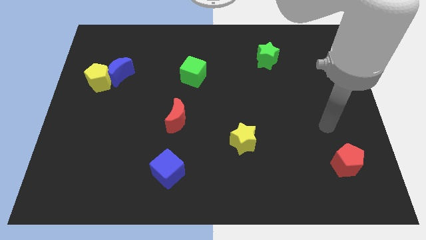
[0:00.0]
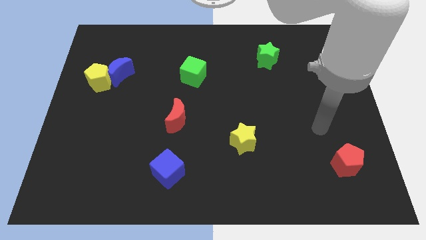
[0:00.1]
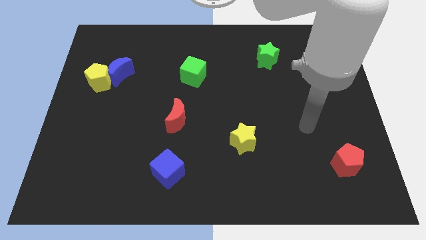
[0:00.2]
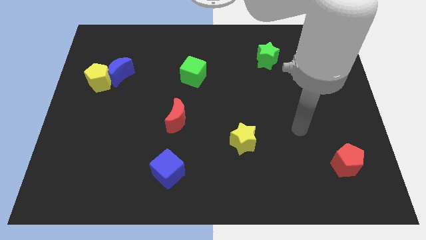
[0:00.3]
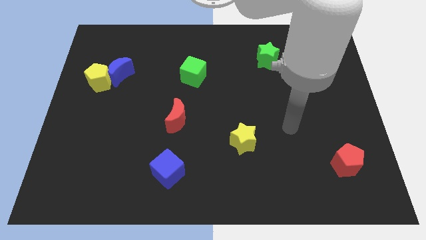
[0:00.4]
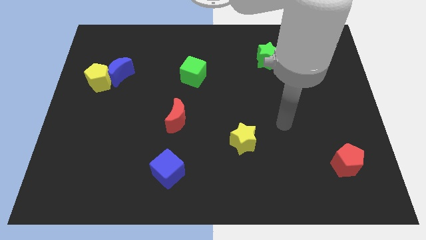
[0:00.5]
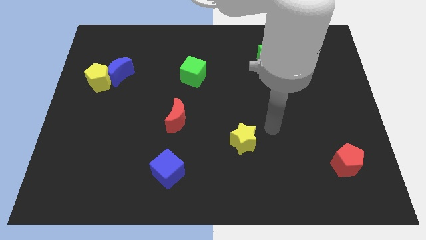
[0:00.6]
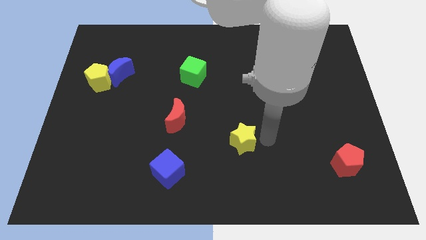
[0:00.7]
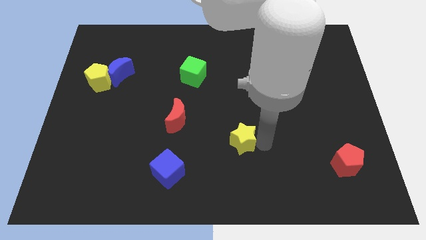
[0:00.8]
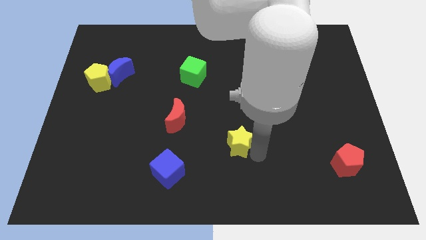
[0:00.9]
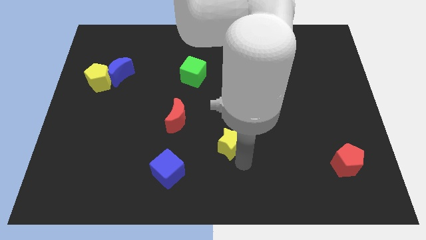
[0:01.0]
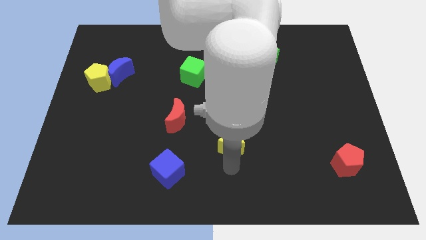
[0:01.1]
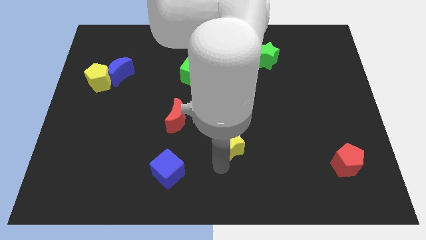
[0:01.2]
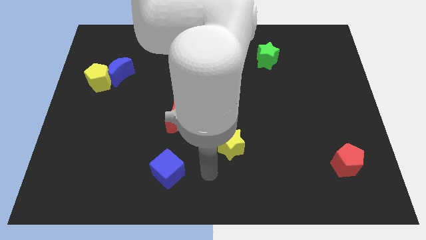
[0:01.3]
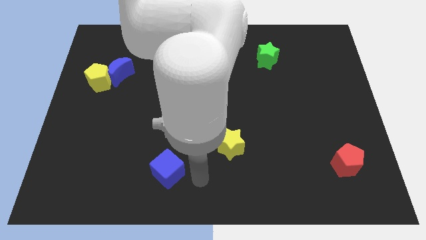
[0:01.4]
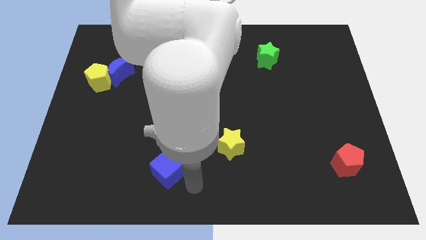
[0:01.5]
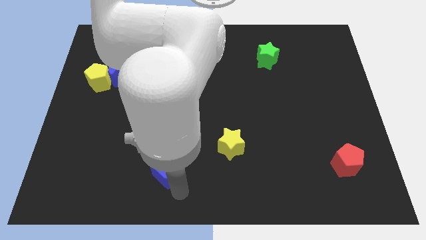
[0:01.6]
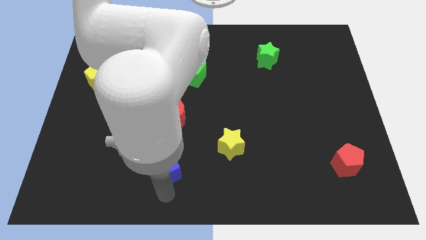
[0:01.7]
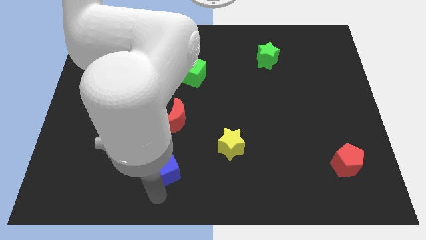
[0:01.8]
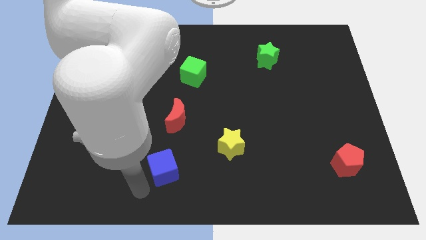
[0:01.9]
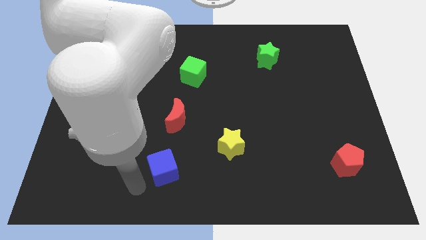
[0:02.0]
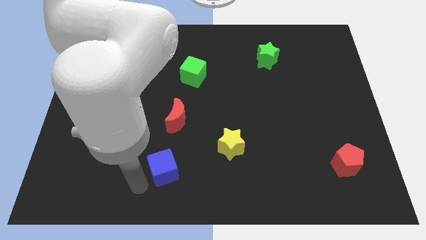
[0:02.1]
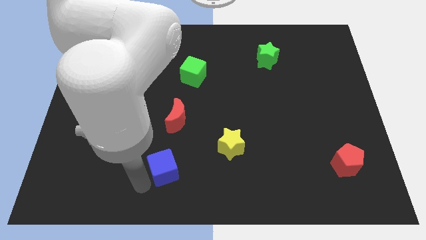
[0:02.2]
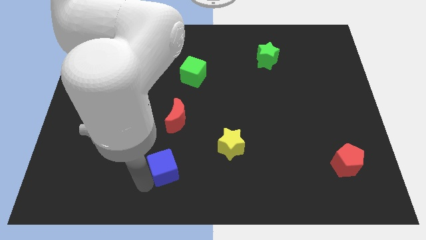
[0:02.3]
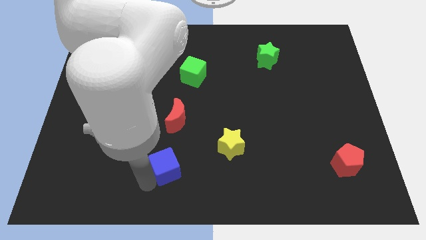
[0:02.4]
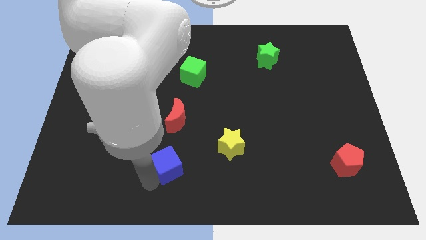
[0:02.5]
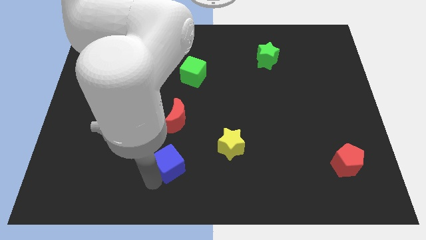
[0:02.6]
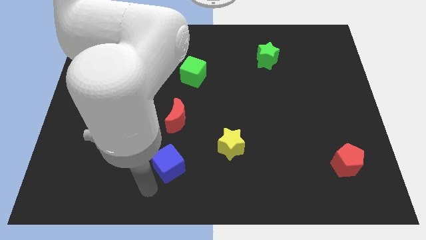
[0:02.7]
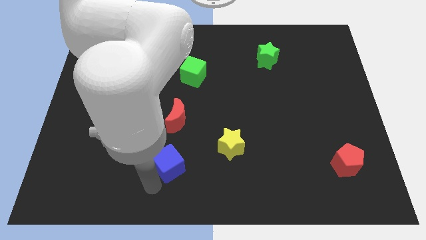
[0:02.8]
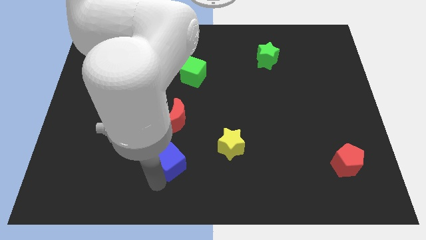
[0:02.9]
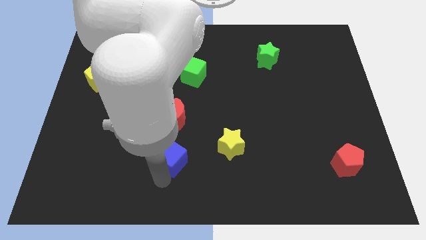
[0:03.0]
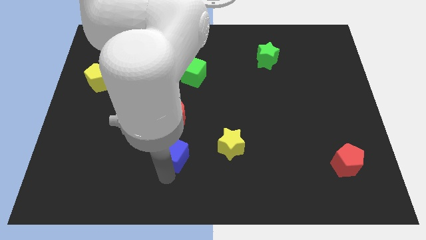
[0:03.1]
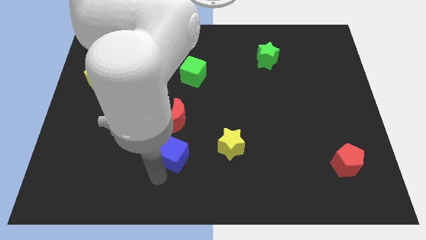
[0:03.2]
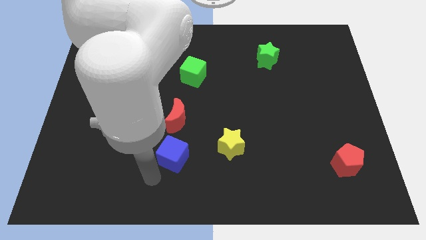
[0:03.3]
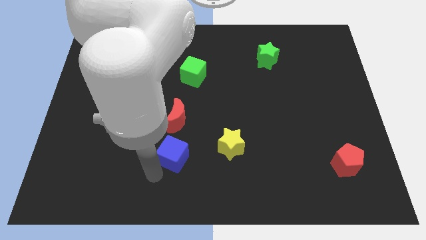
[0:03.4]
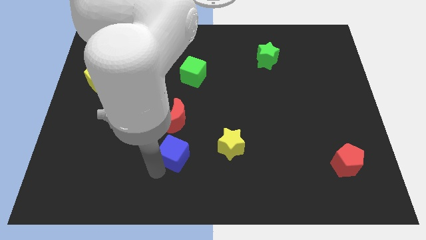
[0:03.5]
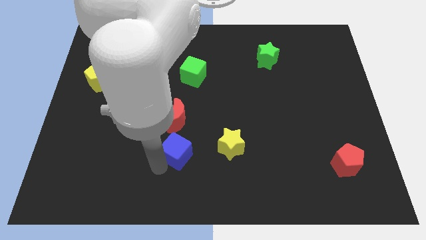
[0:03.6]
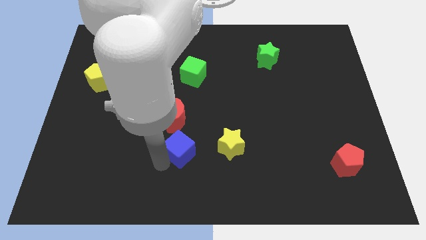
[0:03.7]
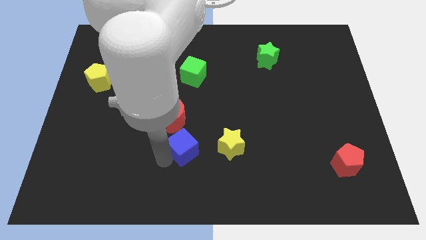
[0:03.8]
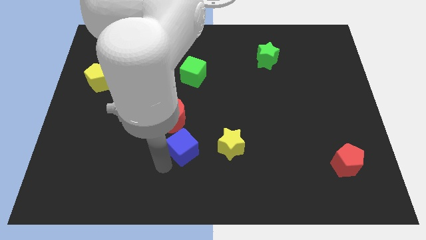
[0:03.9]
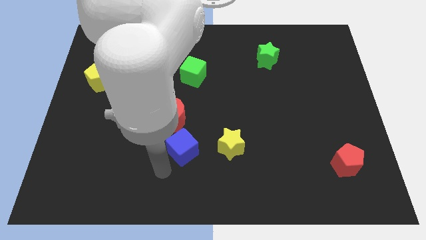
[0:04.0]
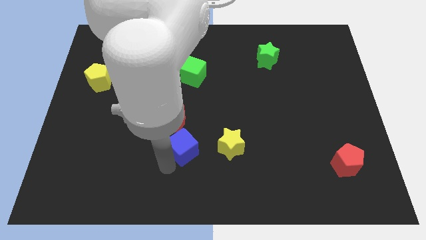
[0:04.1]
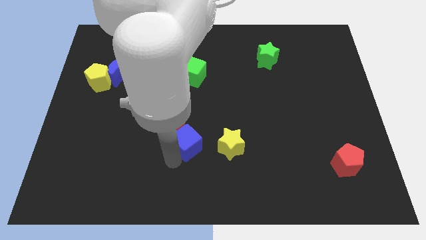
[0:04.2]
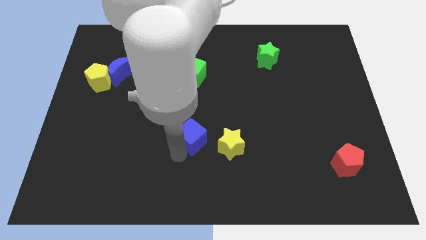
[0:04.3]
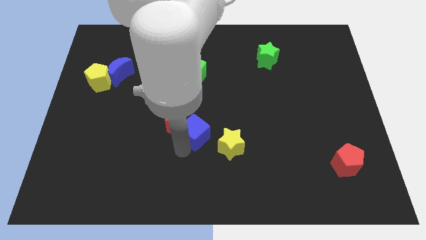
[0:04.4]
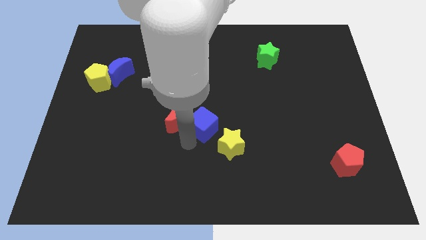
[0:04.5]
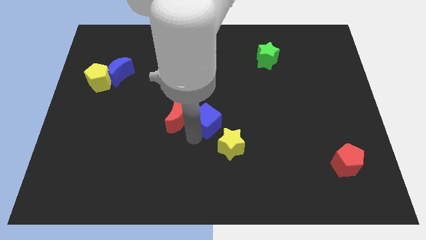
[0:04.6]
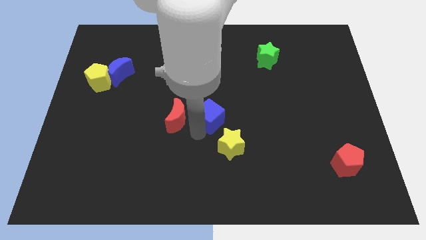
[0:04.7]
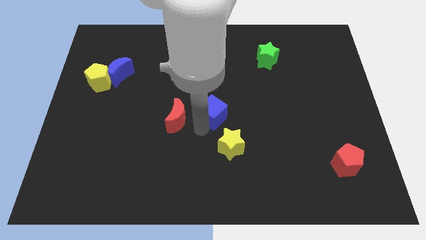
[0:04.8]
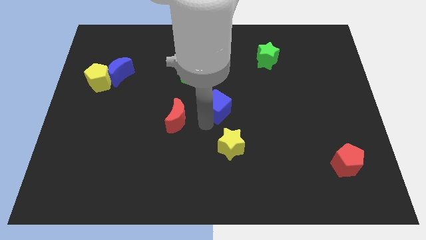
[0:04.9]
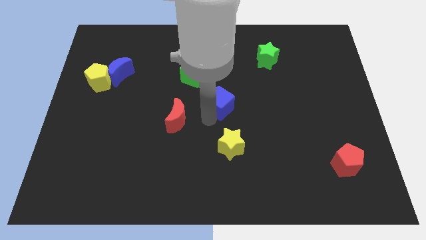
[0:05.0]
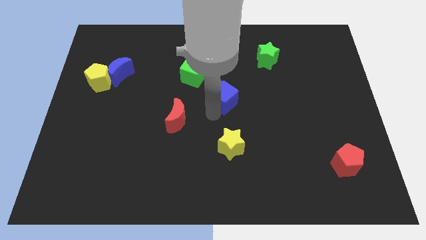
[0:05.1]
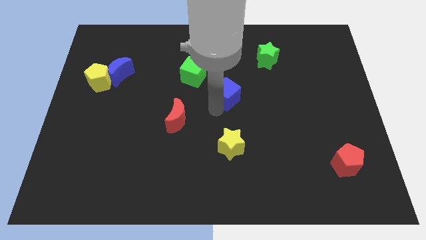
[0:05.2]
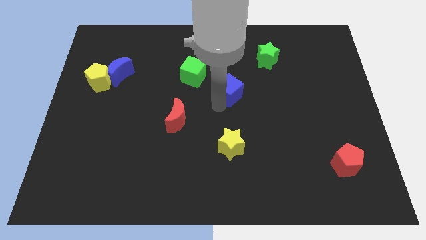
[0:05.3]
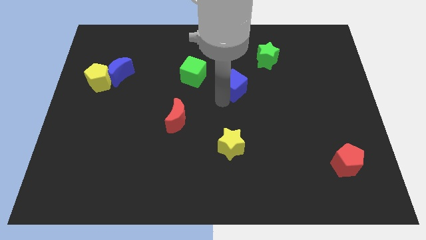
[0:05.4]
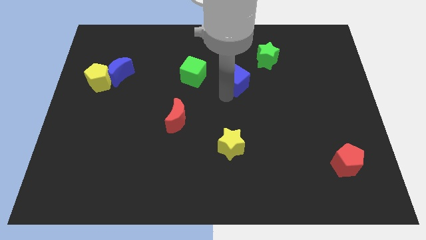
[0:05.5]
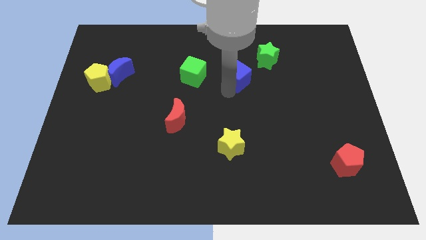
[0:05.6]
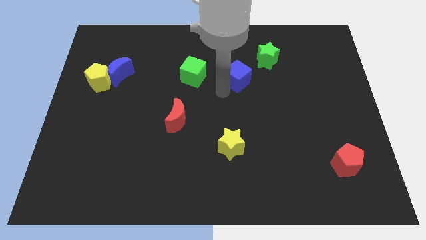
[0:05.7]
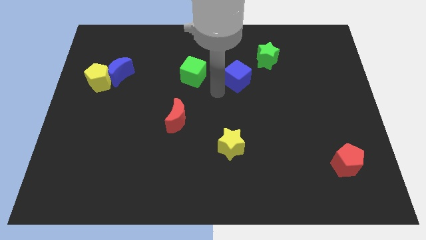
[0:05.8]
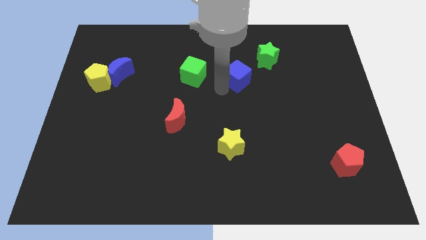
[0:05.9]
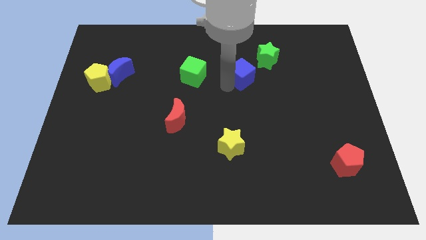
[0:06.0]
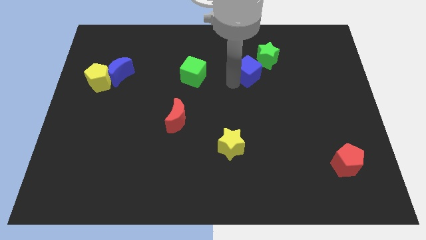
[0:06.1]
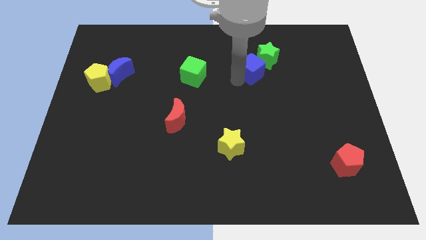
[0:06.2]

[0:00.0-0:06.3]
slide the blue cube next to the green star

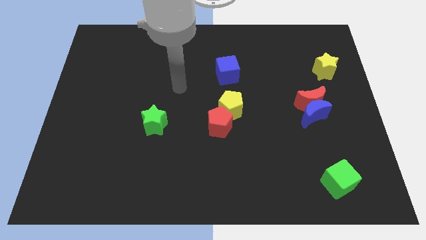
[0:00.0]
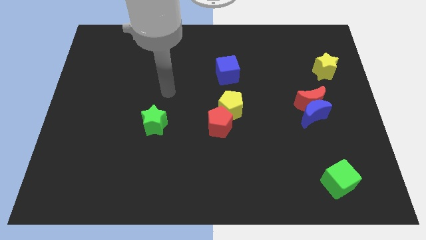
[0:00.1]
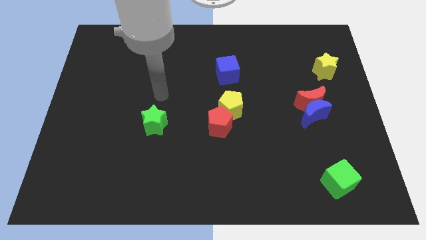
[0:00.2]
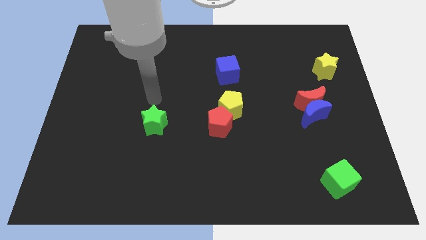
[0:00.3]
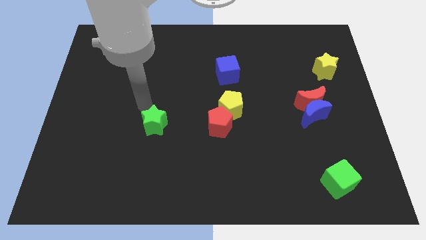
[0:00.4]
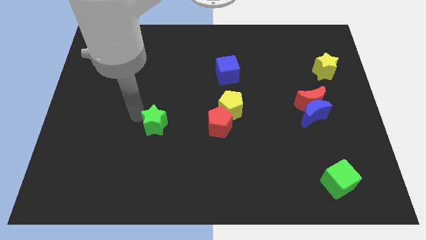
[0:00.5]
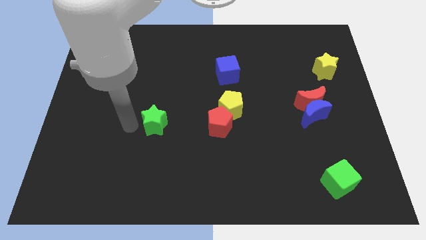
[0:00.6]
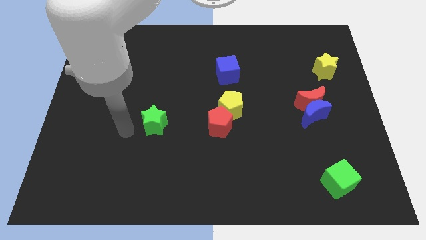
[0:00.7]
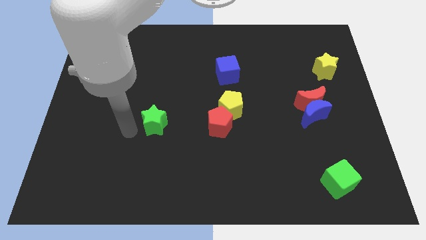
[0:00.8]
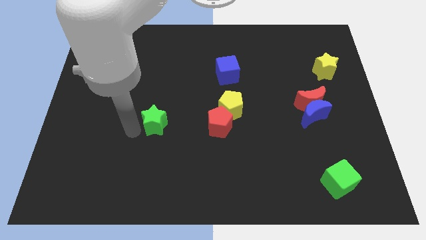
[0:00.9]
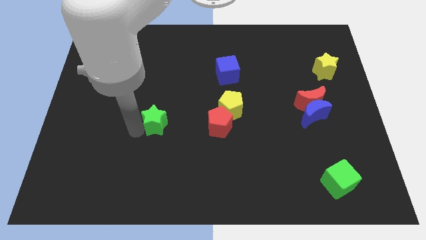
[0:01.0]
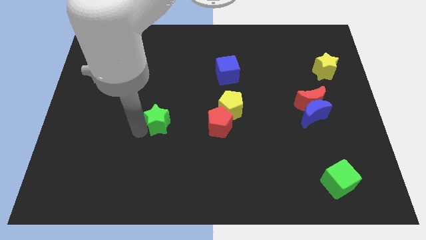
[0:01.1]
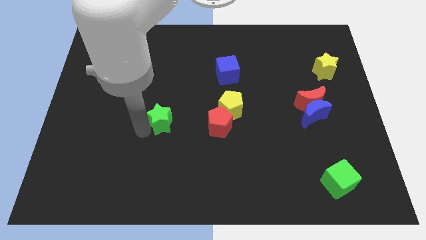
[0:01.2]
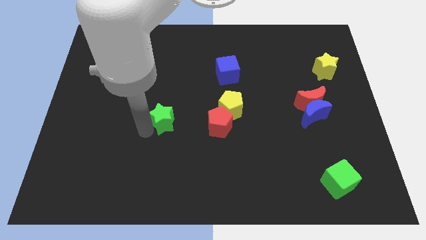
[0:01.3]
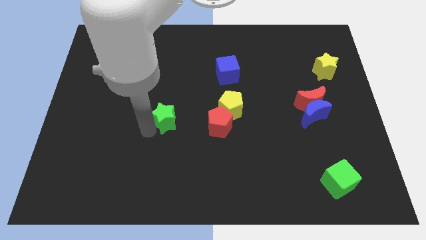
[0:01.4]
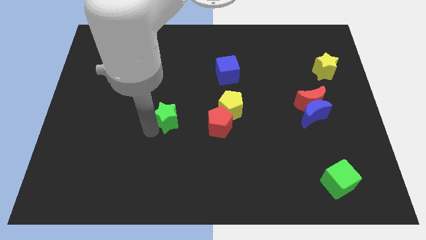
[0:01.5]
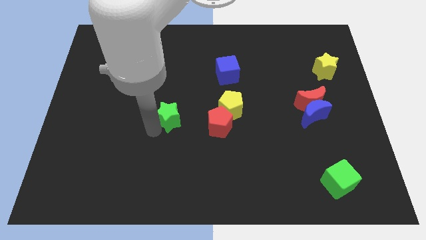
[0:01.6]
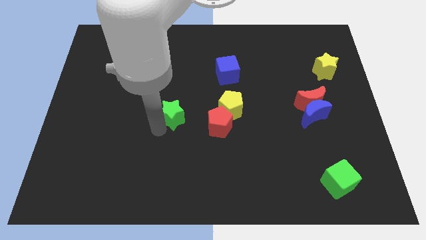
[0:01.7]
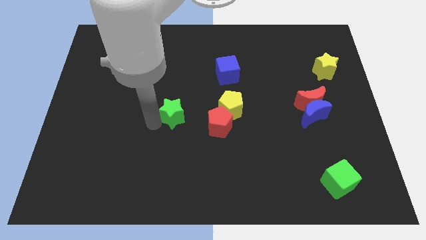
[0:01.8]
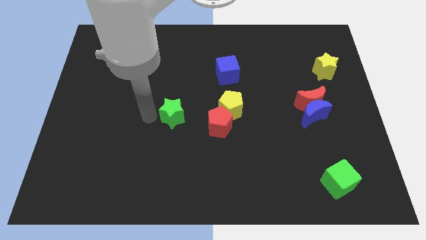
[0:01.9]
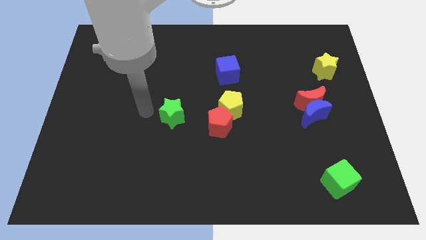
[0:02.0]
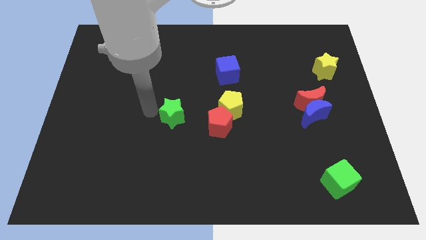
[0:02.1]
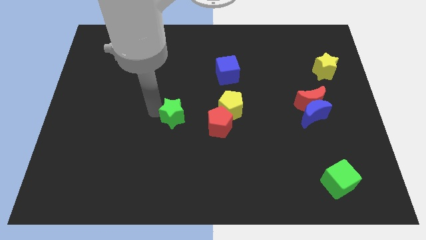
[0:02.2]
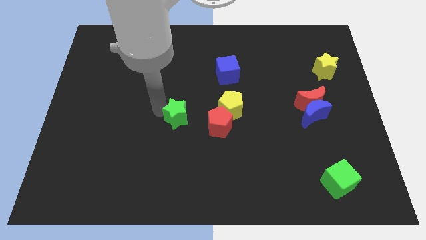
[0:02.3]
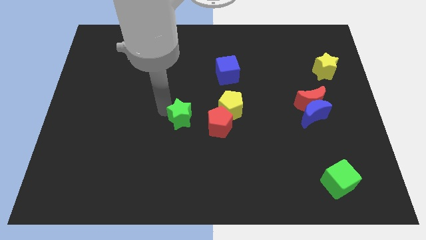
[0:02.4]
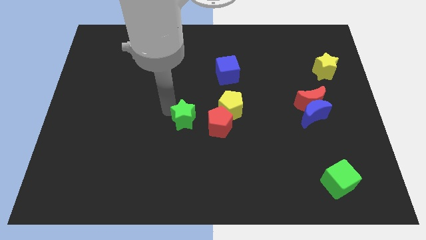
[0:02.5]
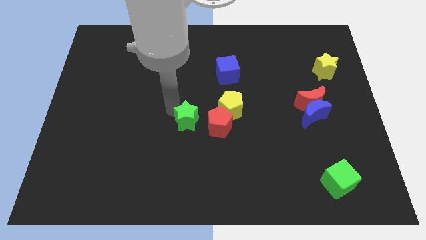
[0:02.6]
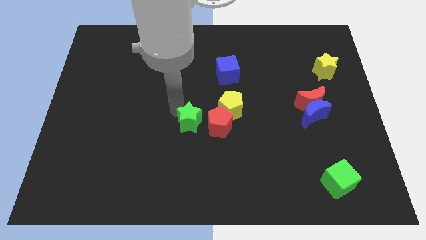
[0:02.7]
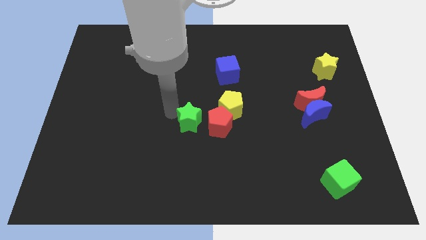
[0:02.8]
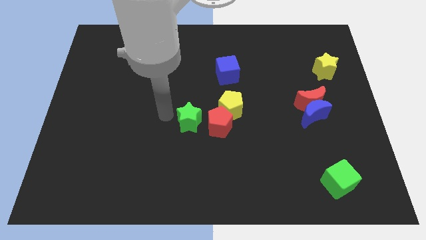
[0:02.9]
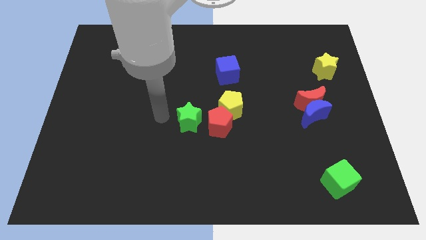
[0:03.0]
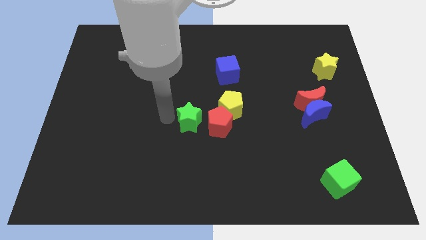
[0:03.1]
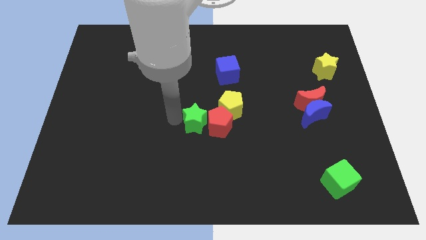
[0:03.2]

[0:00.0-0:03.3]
push the green star towards the red pentagon
